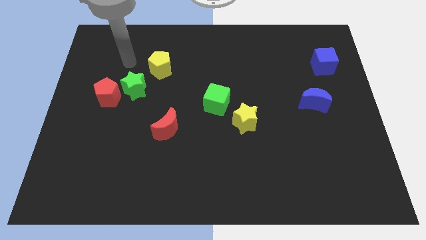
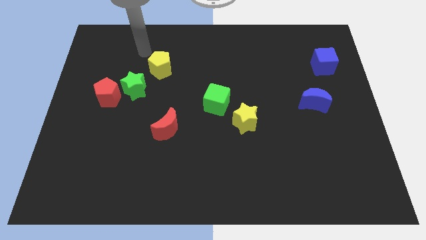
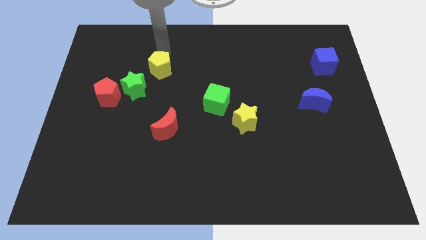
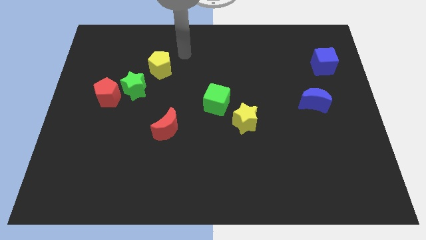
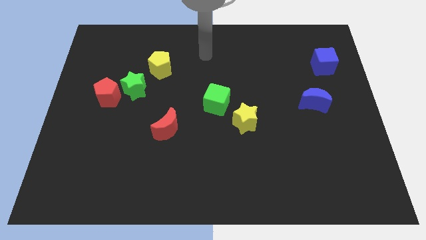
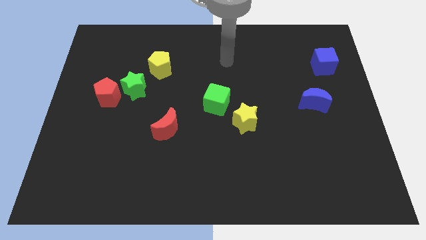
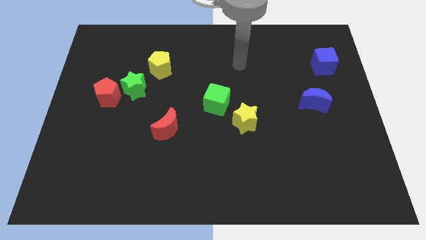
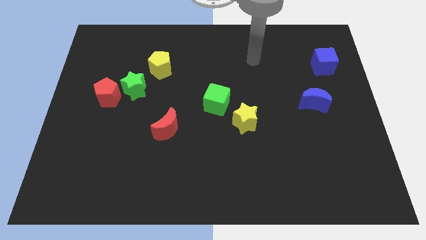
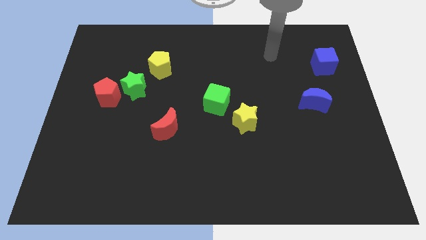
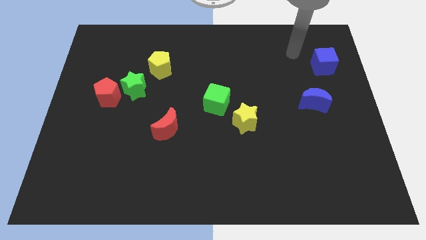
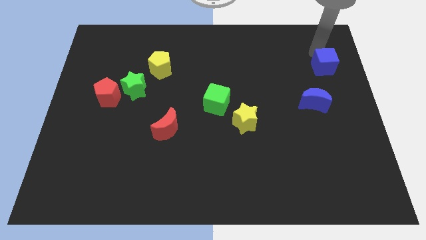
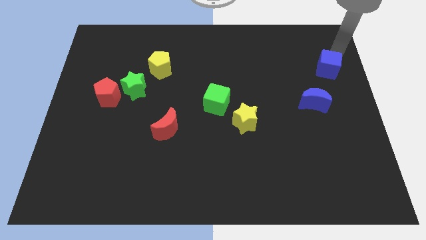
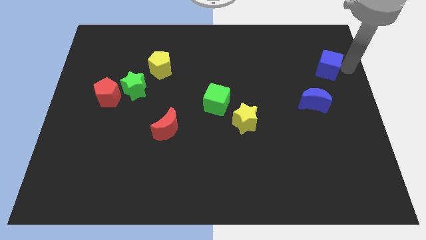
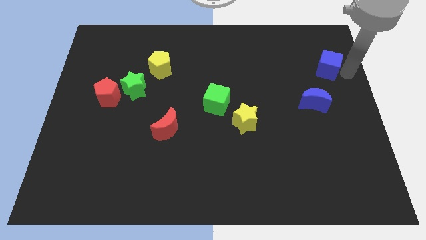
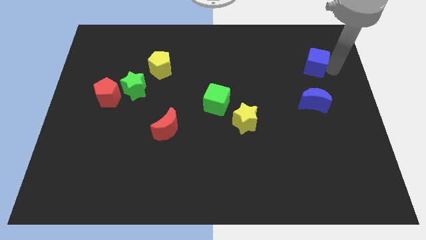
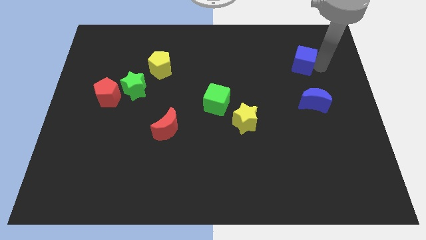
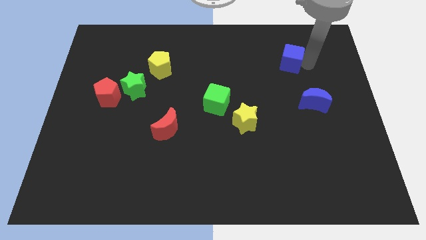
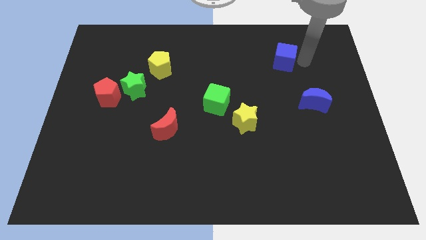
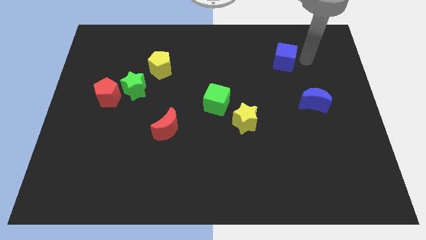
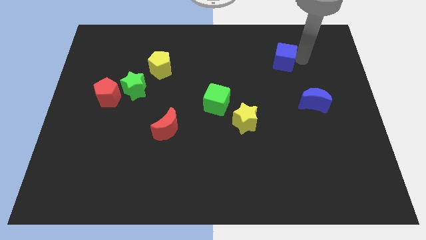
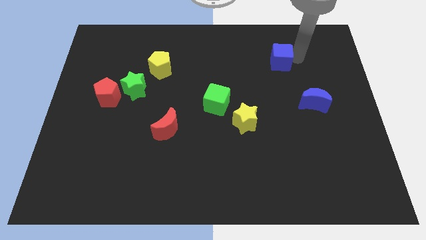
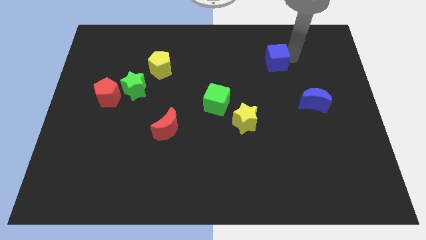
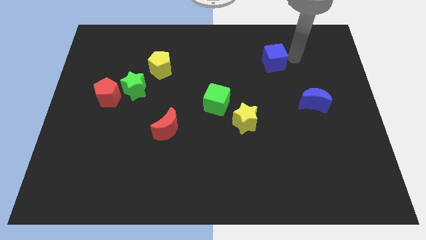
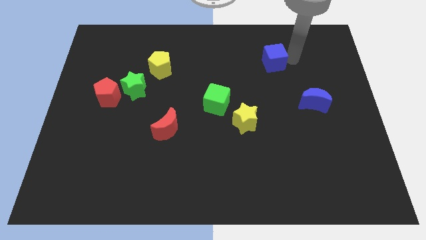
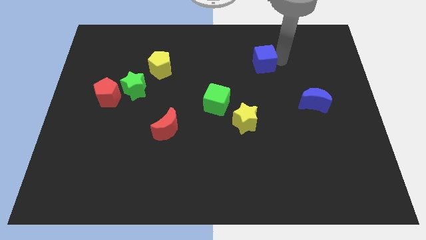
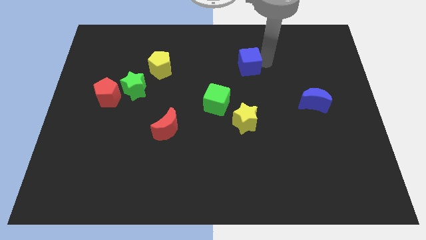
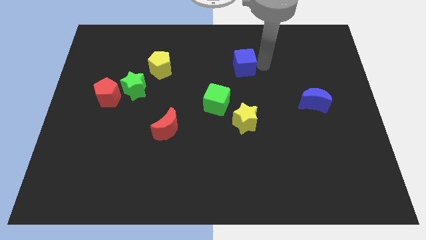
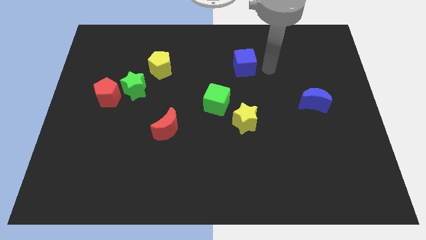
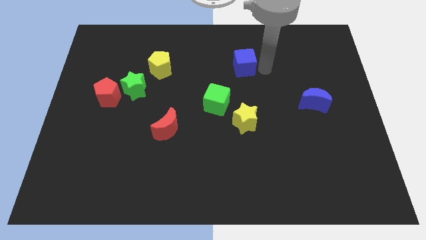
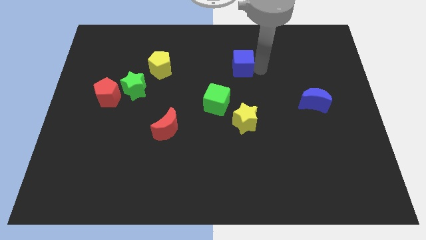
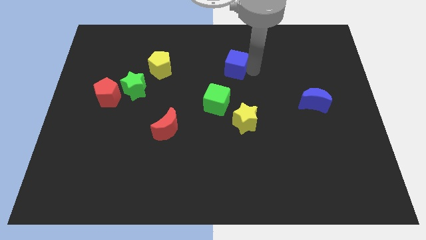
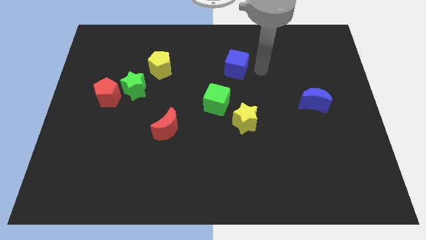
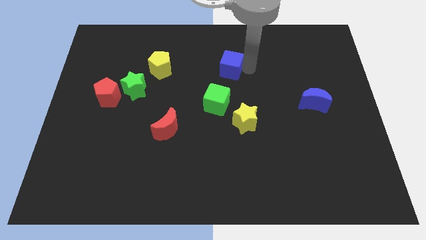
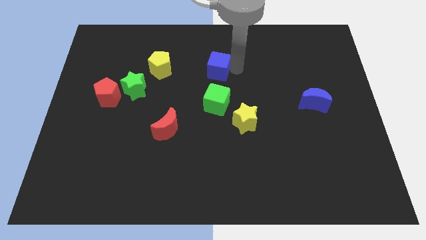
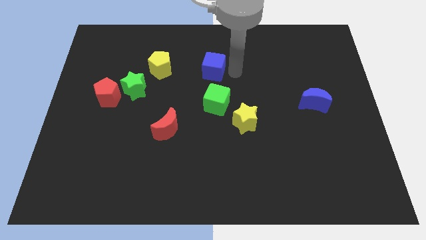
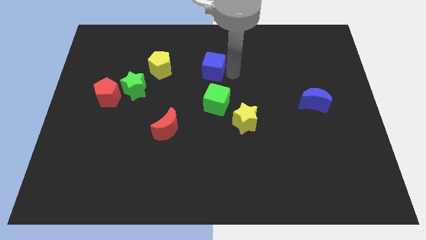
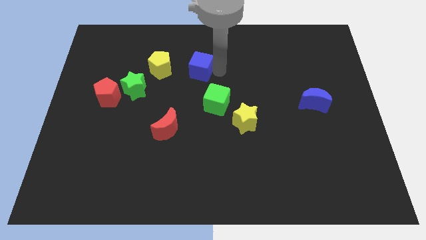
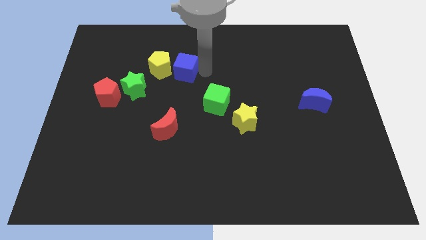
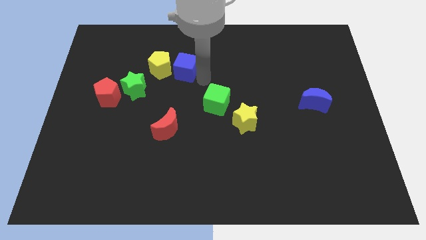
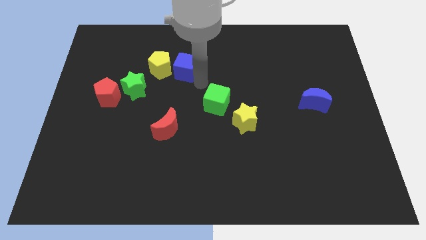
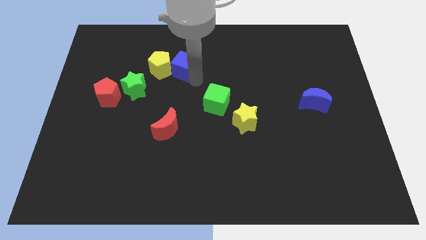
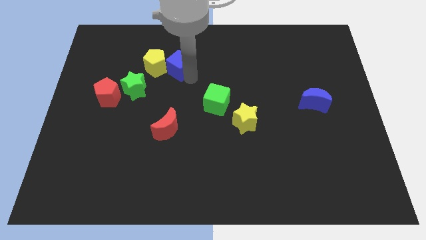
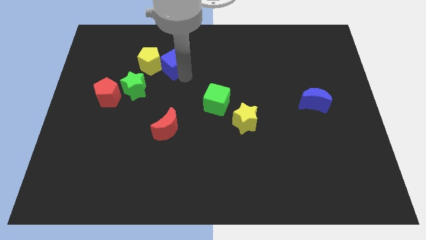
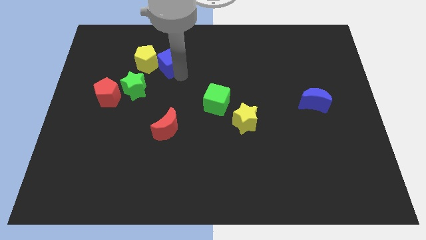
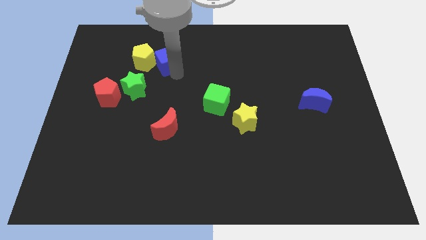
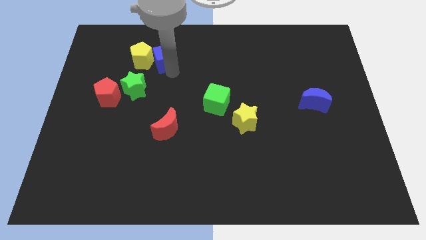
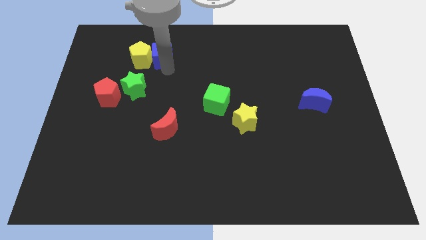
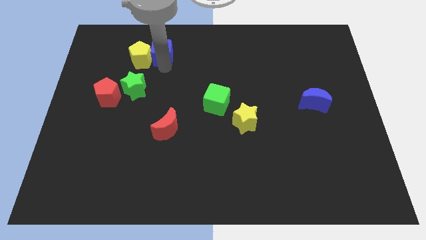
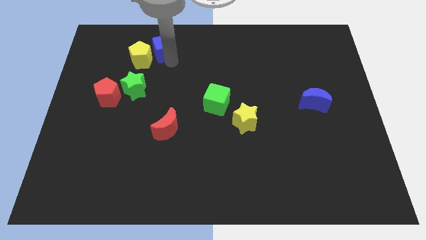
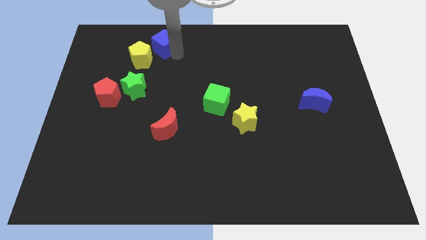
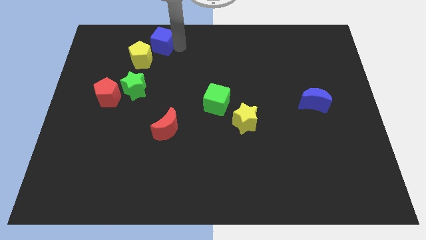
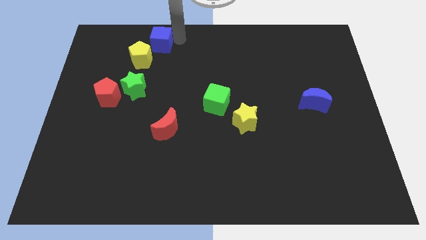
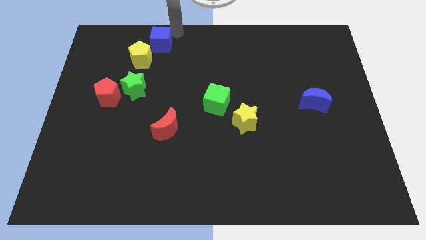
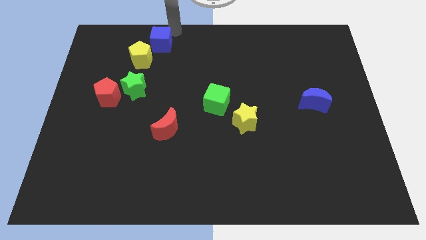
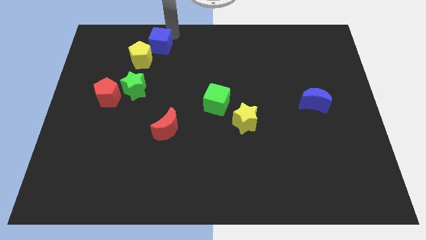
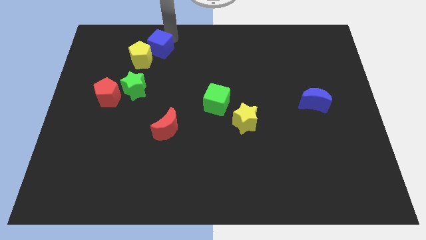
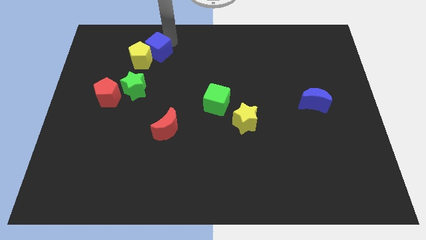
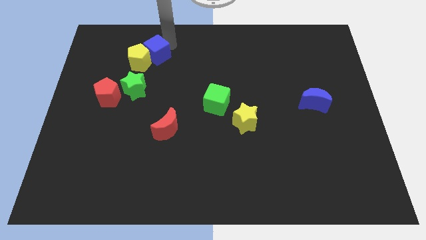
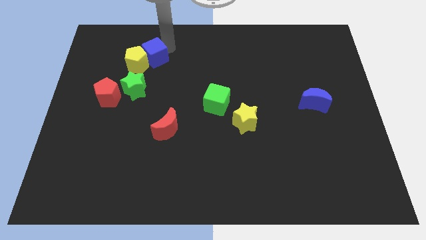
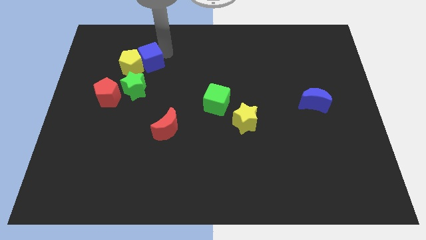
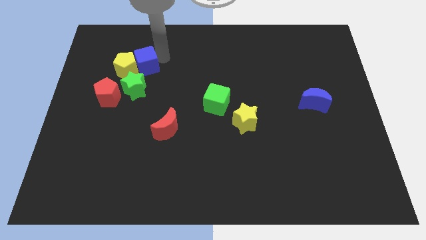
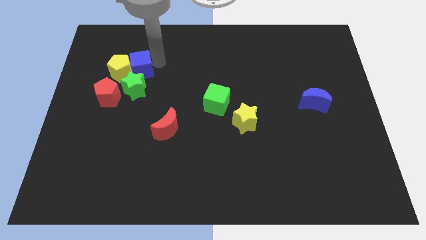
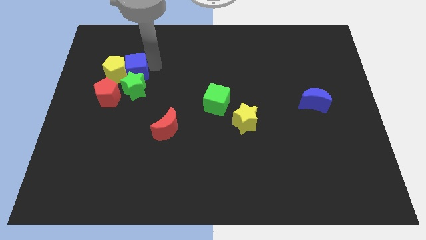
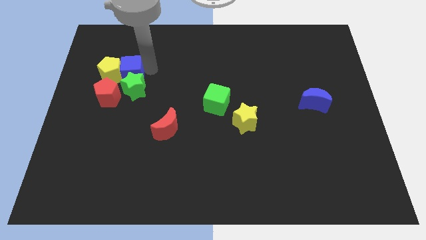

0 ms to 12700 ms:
slide the blue cube above the red pentagon

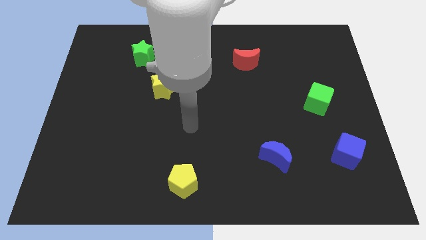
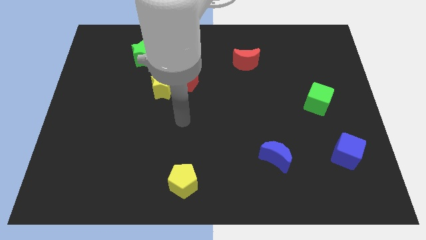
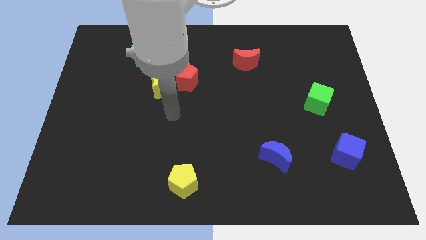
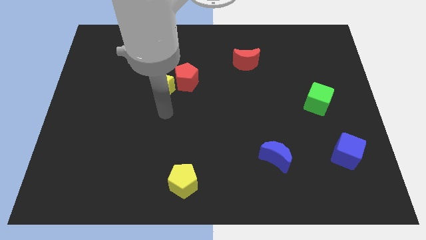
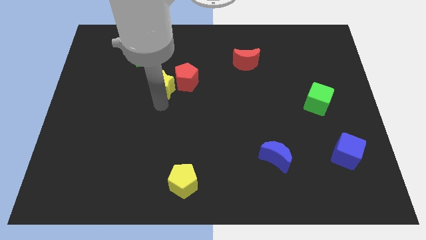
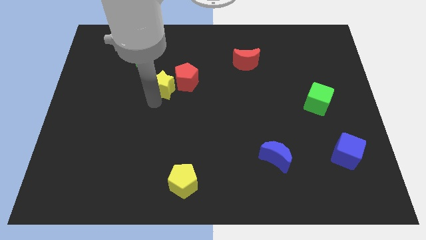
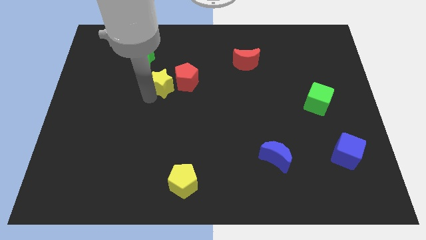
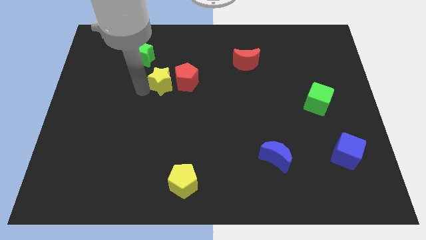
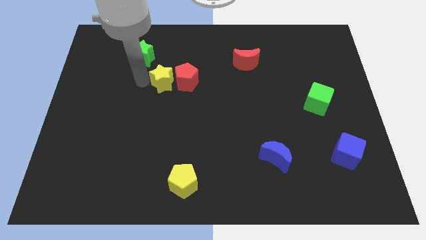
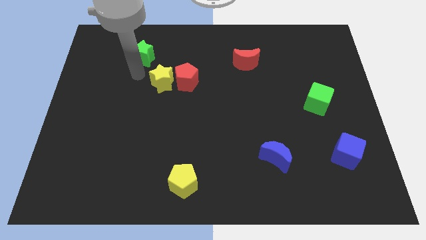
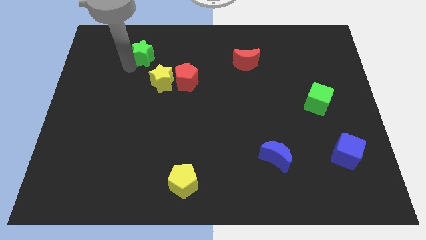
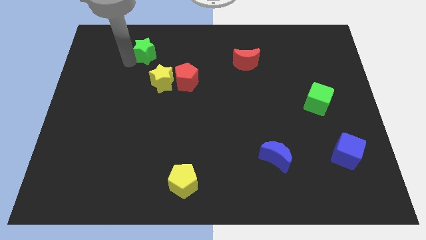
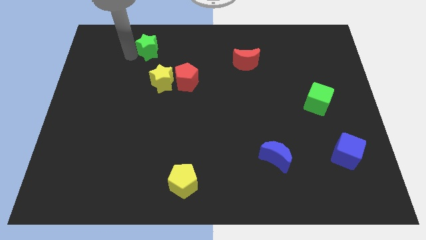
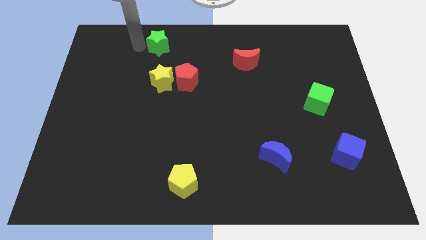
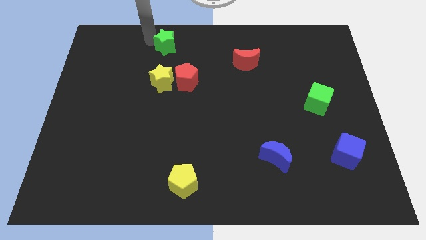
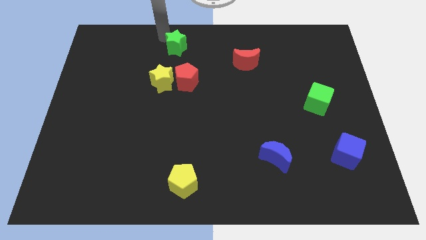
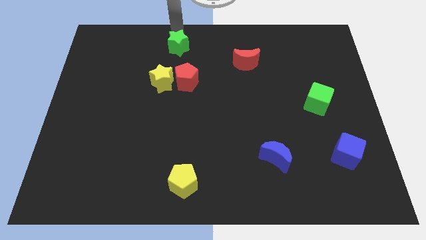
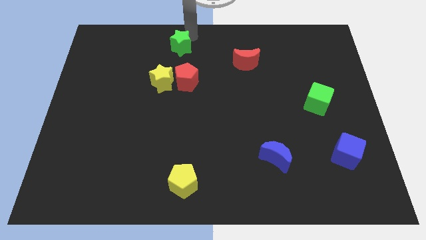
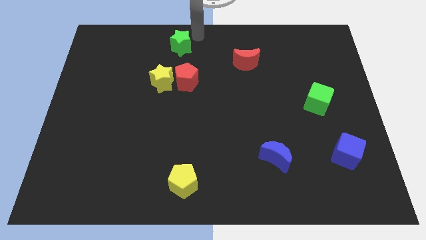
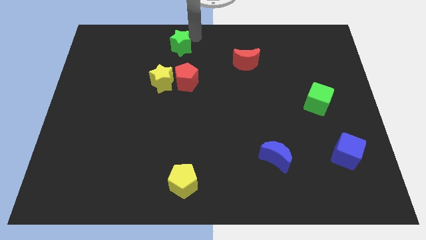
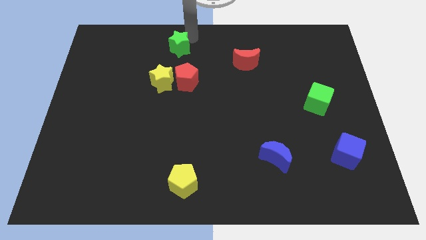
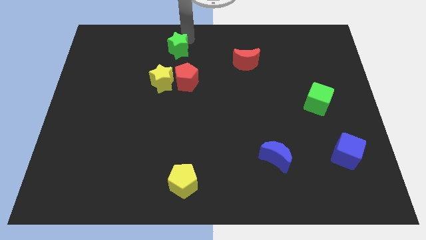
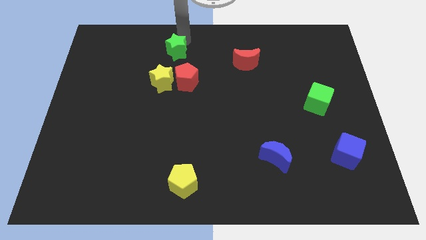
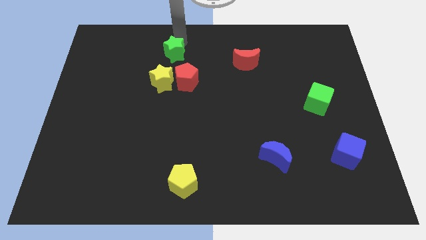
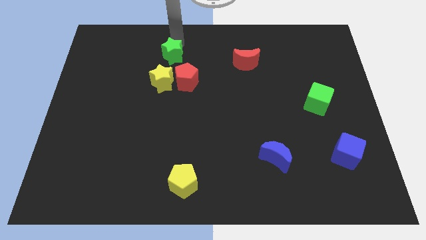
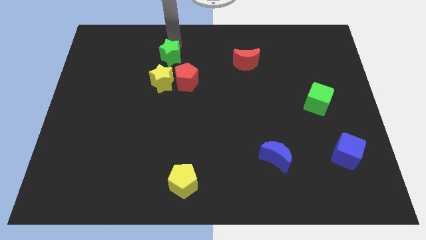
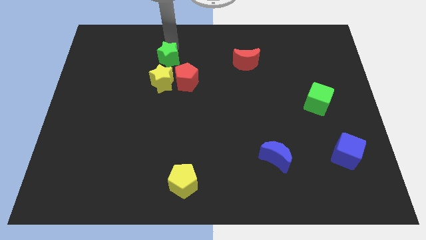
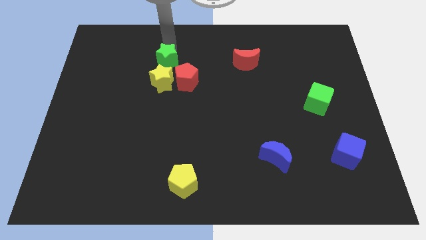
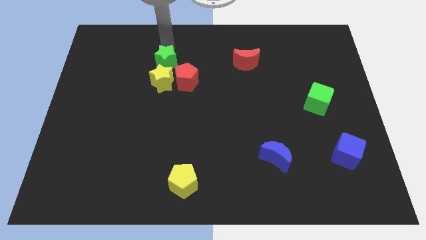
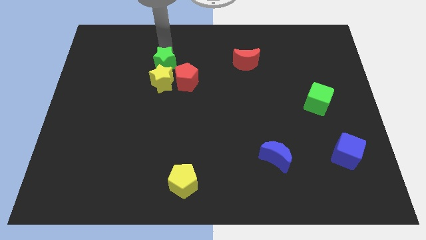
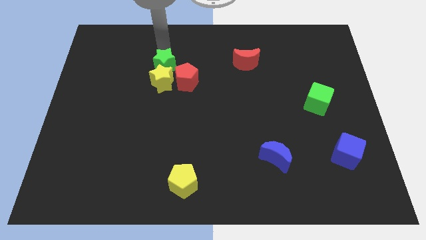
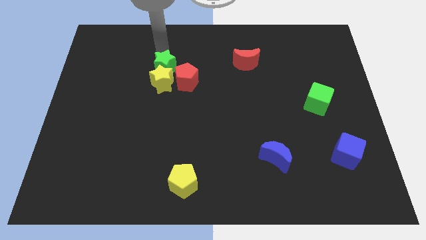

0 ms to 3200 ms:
push the green star just left of the red pentagon
